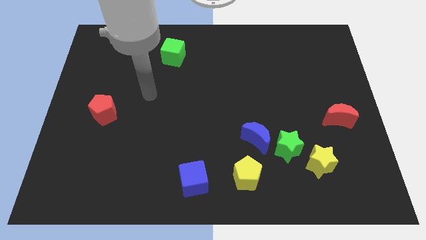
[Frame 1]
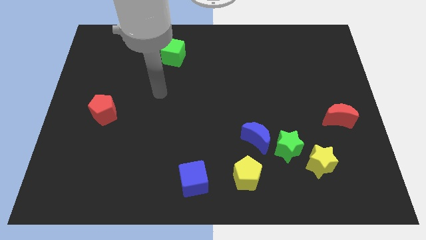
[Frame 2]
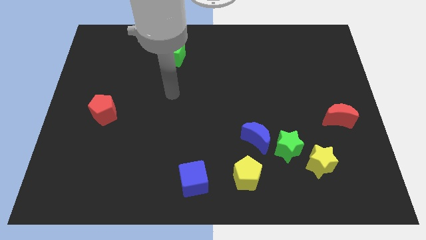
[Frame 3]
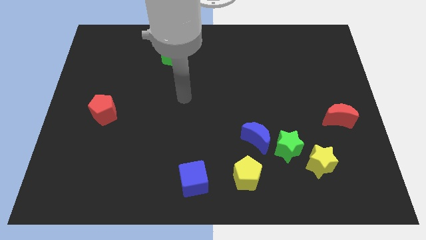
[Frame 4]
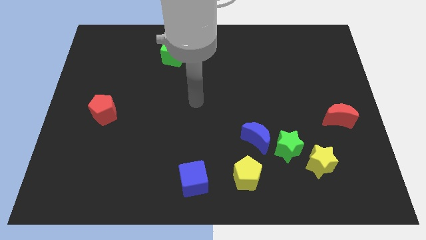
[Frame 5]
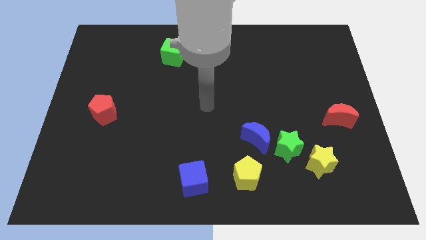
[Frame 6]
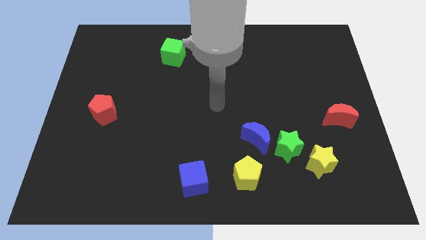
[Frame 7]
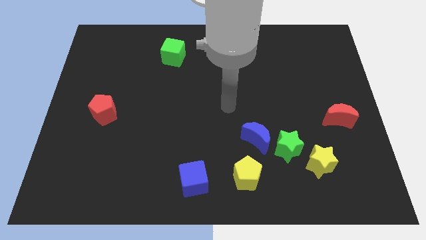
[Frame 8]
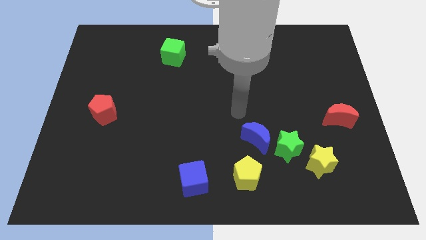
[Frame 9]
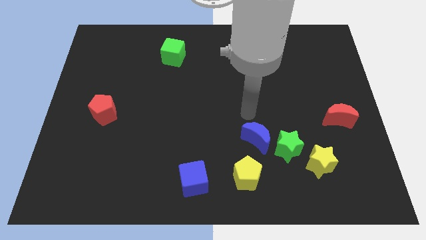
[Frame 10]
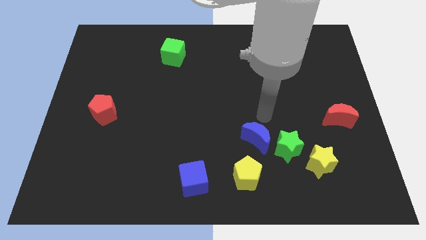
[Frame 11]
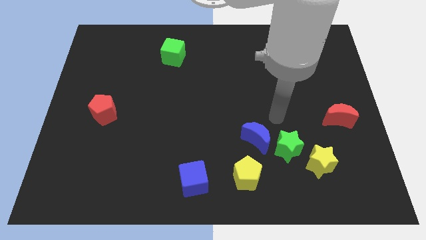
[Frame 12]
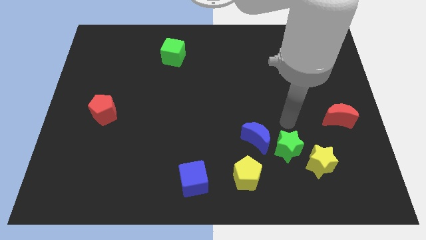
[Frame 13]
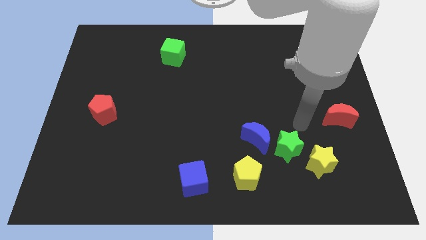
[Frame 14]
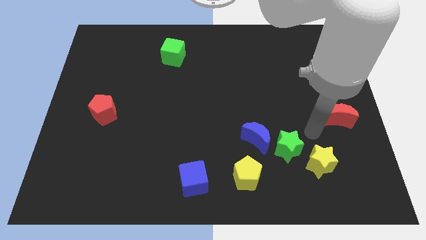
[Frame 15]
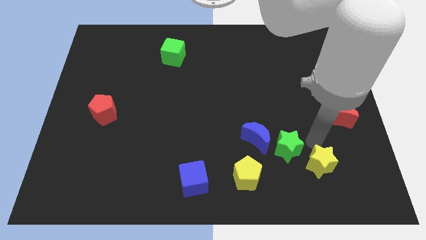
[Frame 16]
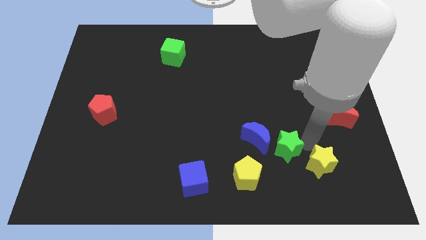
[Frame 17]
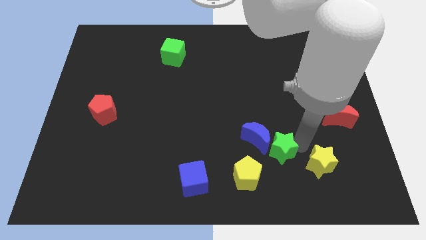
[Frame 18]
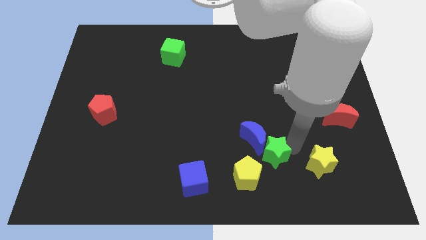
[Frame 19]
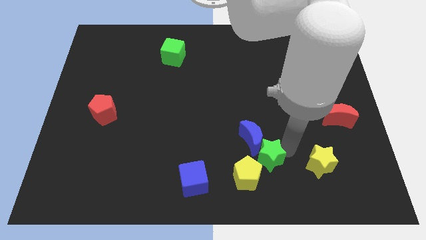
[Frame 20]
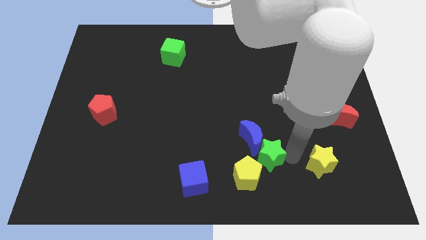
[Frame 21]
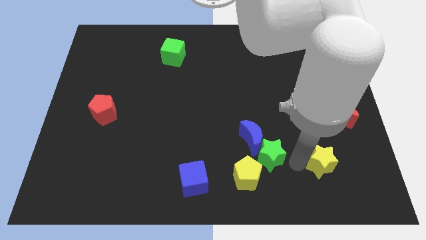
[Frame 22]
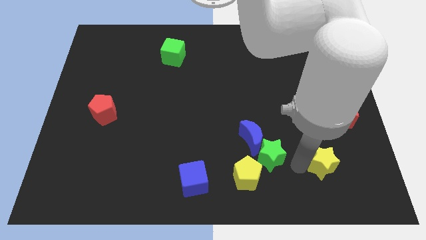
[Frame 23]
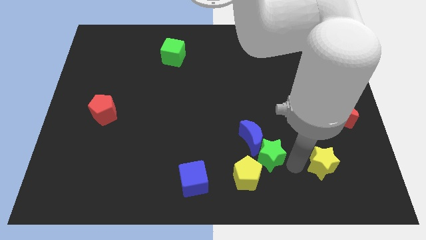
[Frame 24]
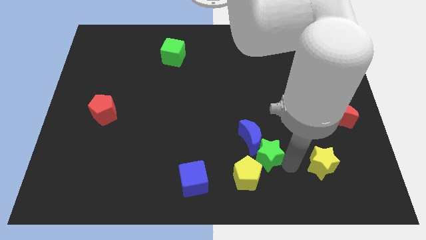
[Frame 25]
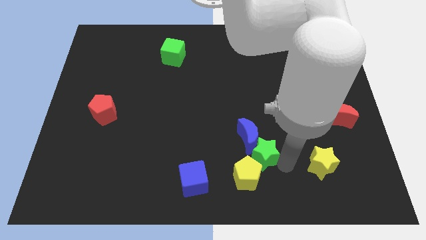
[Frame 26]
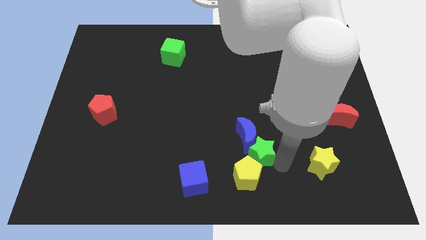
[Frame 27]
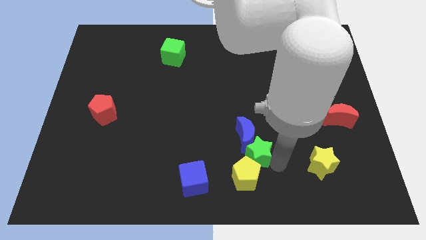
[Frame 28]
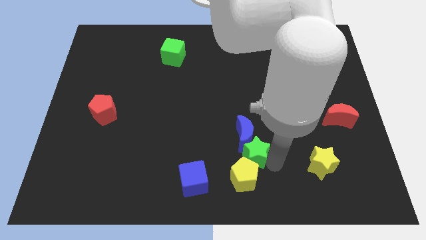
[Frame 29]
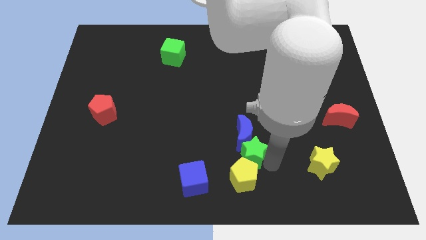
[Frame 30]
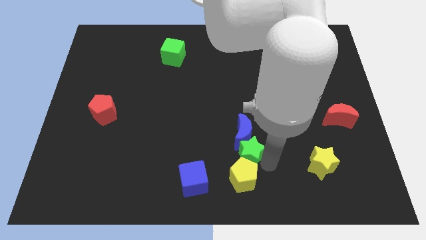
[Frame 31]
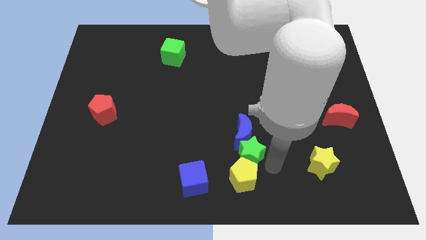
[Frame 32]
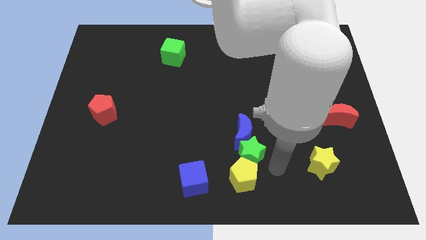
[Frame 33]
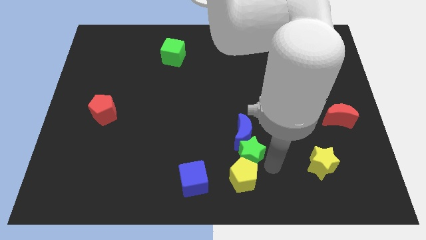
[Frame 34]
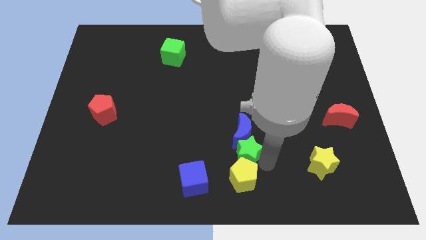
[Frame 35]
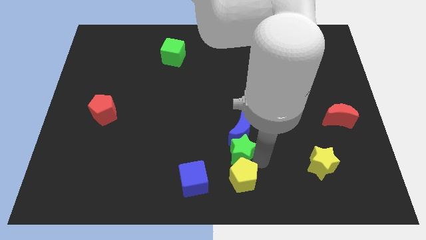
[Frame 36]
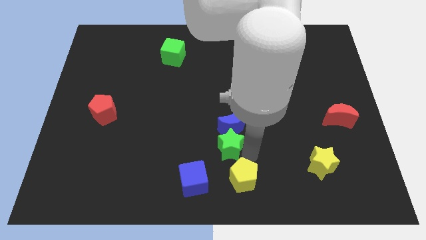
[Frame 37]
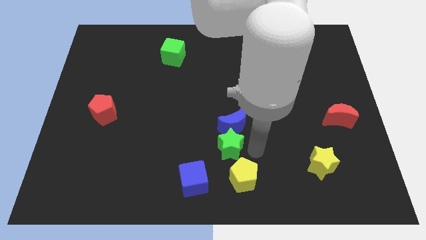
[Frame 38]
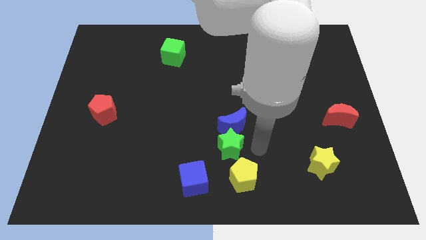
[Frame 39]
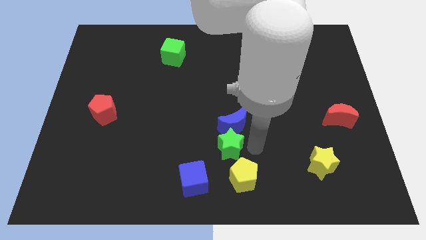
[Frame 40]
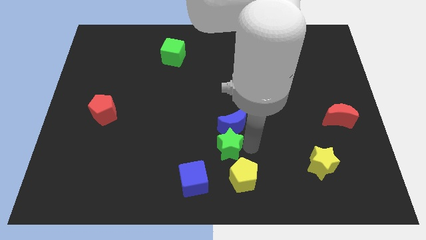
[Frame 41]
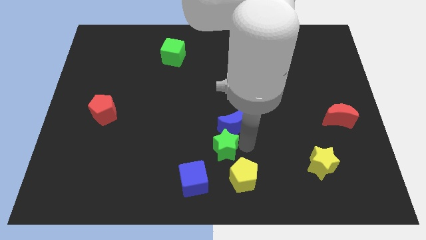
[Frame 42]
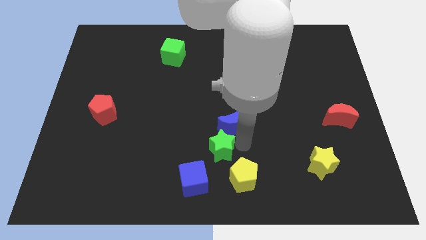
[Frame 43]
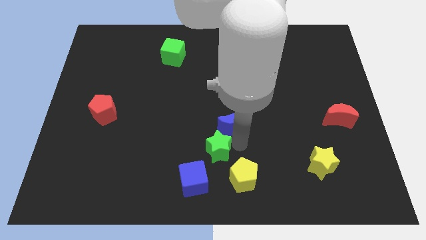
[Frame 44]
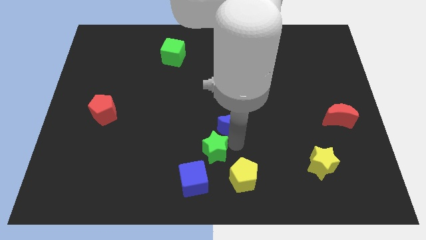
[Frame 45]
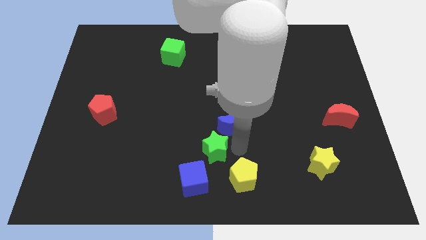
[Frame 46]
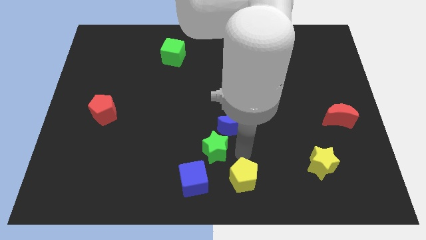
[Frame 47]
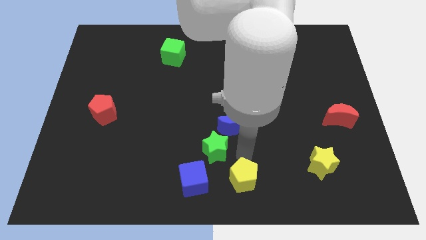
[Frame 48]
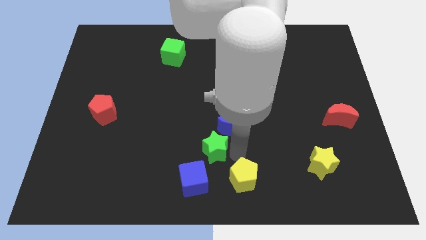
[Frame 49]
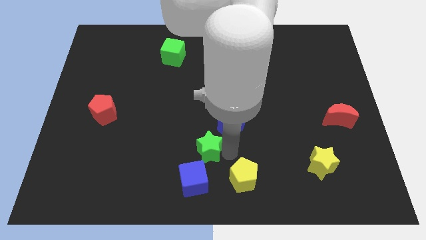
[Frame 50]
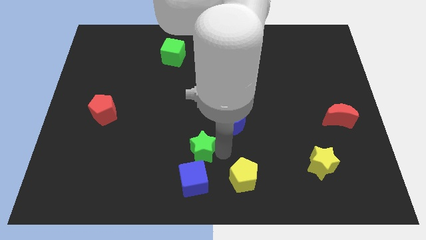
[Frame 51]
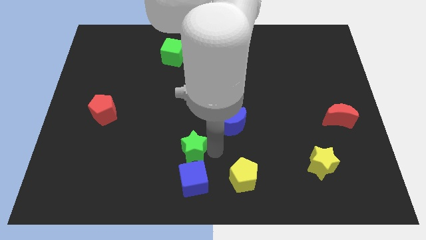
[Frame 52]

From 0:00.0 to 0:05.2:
slide the green star left

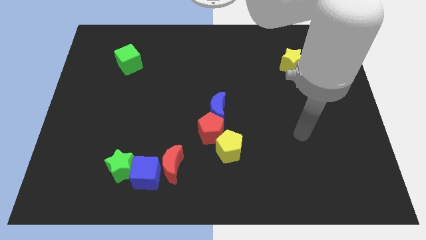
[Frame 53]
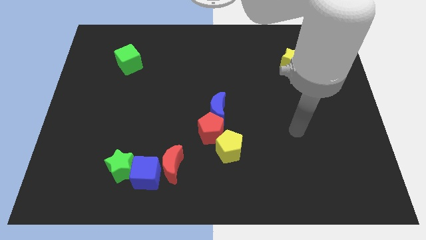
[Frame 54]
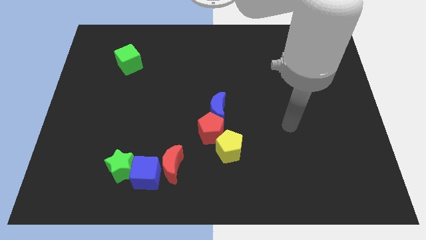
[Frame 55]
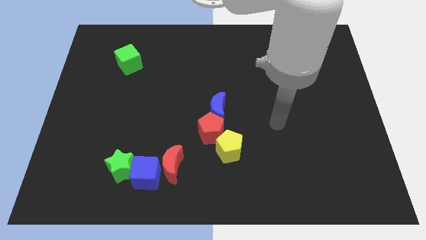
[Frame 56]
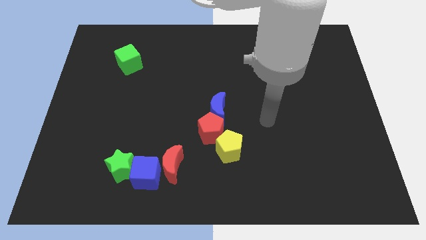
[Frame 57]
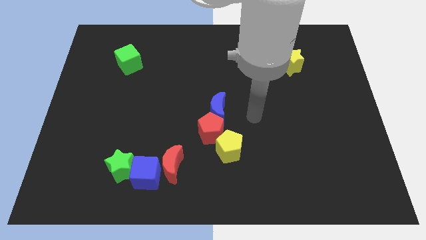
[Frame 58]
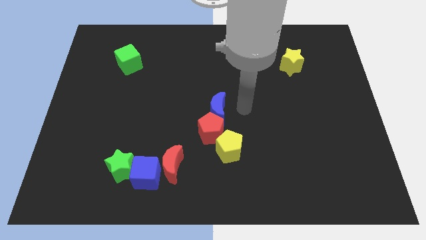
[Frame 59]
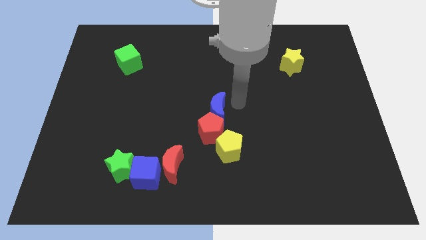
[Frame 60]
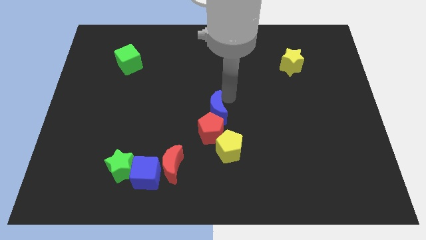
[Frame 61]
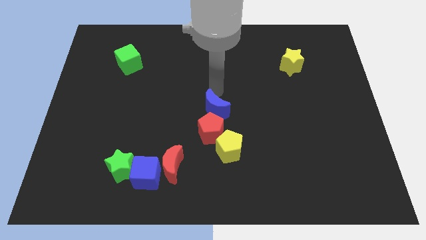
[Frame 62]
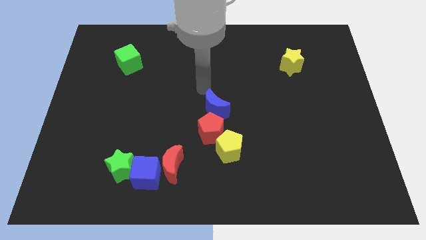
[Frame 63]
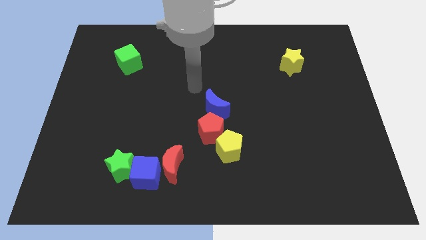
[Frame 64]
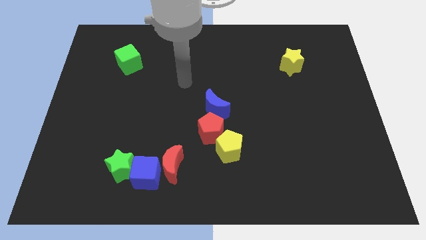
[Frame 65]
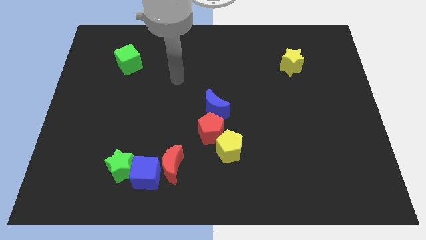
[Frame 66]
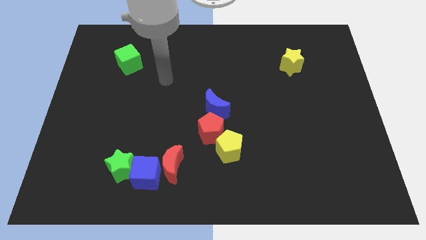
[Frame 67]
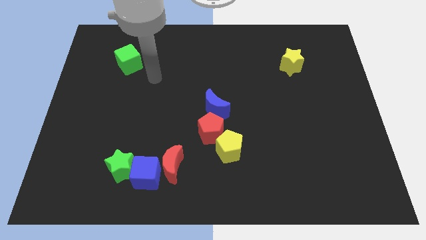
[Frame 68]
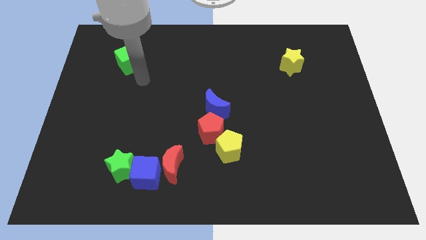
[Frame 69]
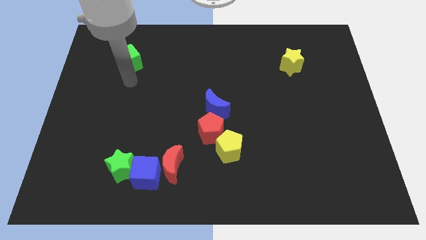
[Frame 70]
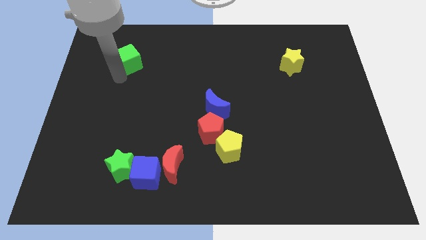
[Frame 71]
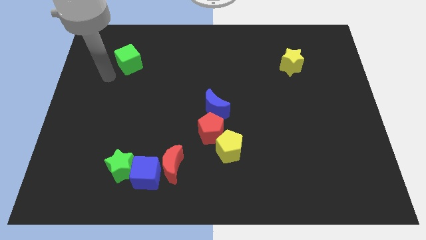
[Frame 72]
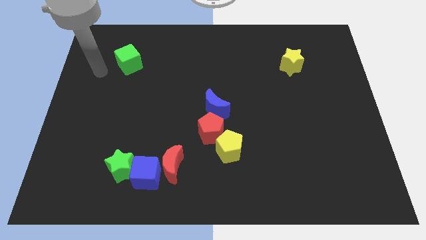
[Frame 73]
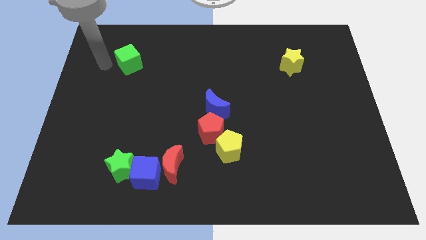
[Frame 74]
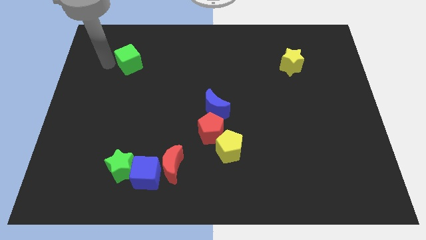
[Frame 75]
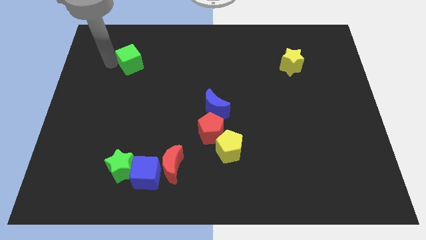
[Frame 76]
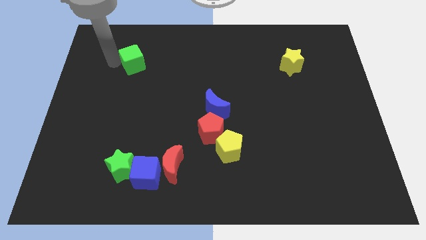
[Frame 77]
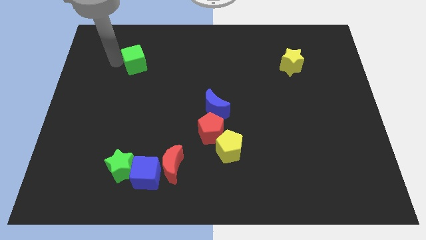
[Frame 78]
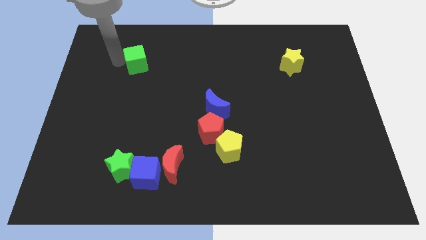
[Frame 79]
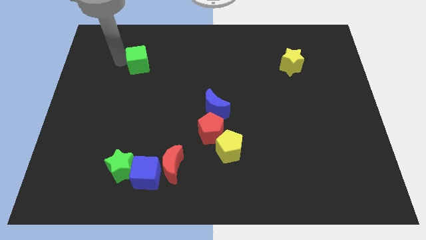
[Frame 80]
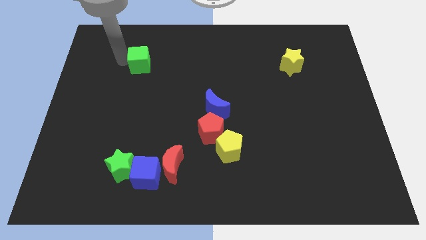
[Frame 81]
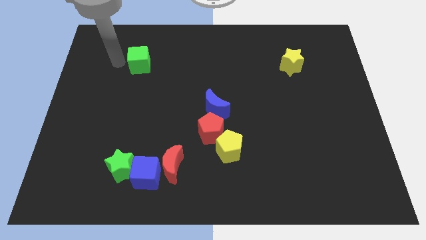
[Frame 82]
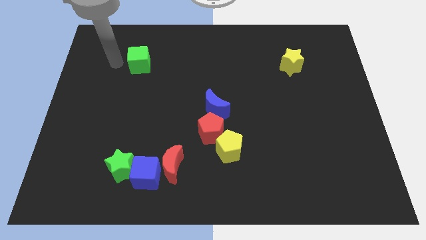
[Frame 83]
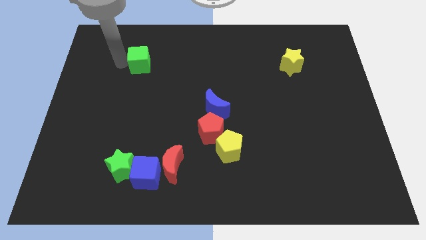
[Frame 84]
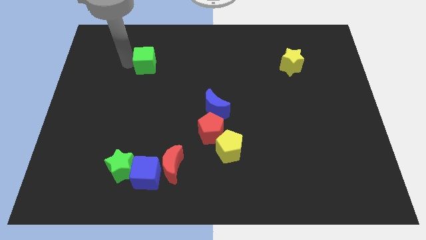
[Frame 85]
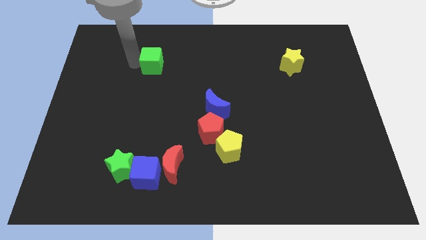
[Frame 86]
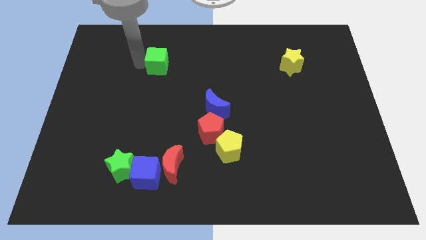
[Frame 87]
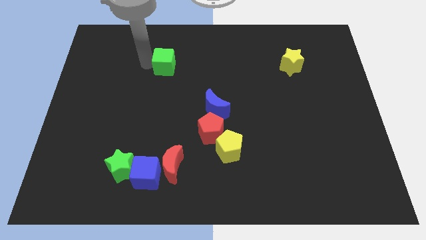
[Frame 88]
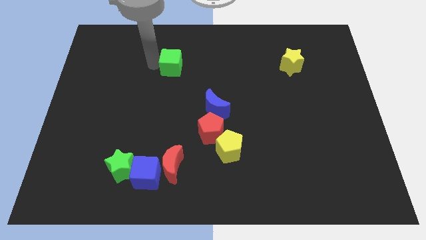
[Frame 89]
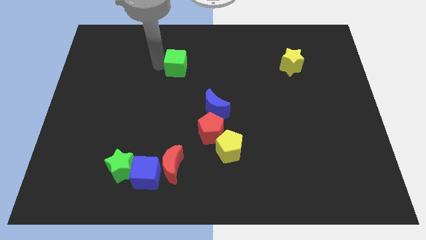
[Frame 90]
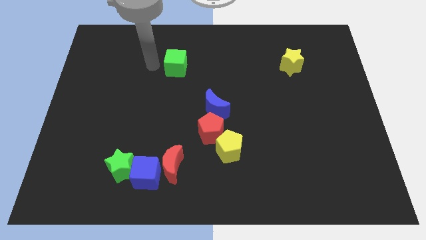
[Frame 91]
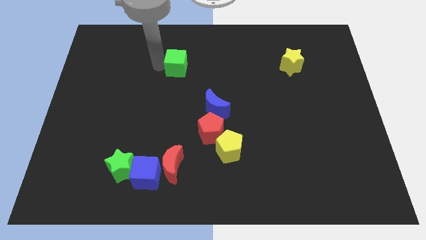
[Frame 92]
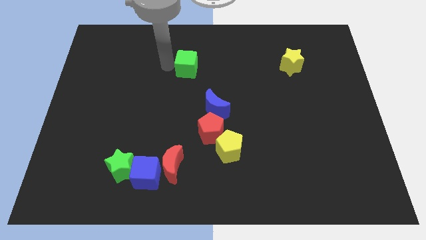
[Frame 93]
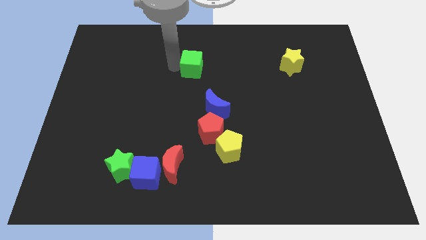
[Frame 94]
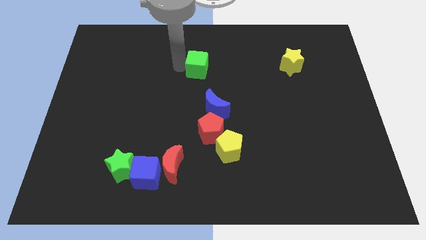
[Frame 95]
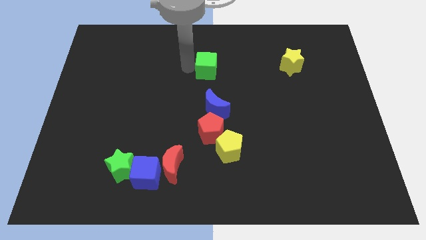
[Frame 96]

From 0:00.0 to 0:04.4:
push the green cube to the right
